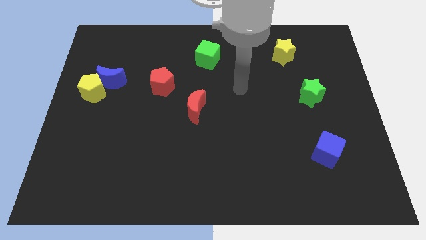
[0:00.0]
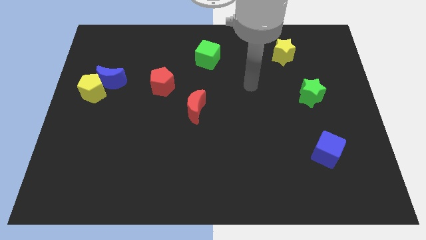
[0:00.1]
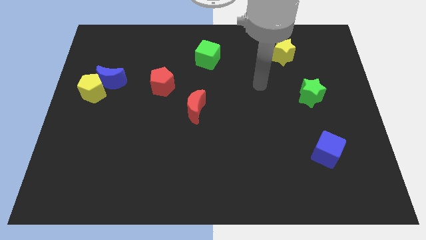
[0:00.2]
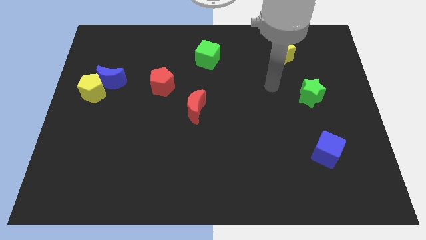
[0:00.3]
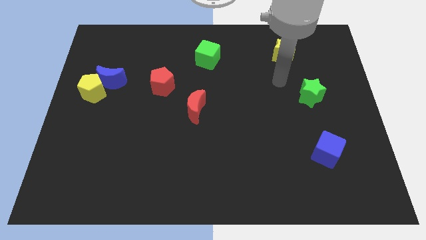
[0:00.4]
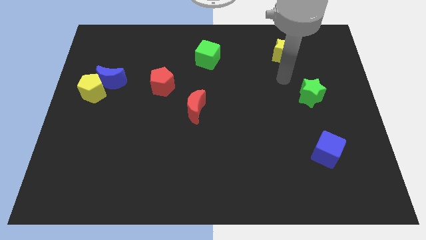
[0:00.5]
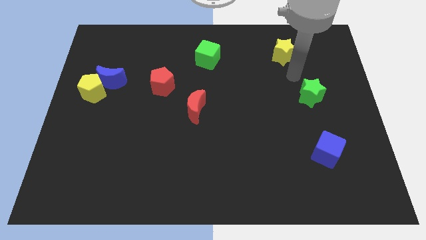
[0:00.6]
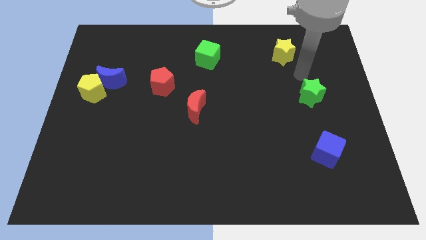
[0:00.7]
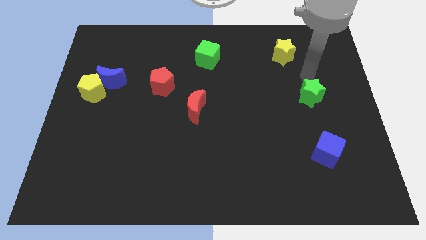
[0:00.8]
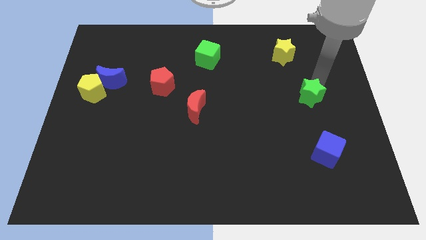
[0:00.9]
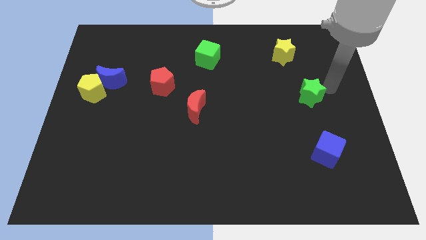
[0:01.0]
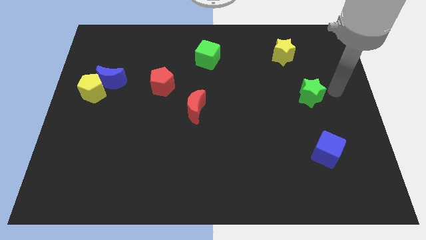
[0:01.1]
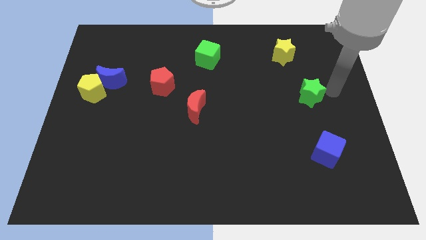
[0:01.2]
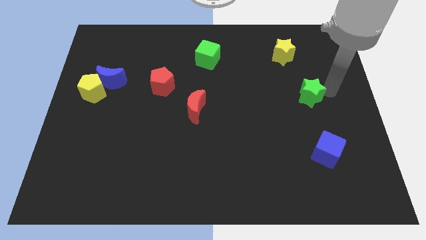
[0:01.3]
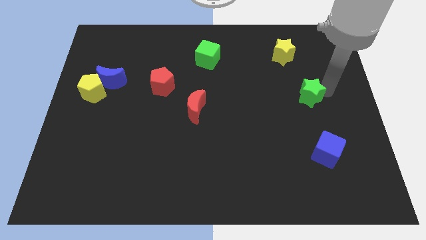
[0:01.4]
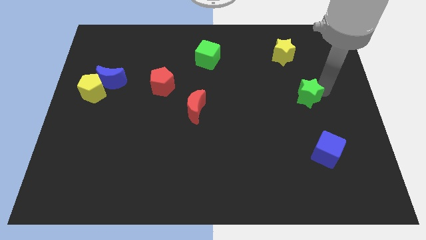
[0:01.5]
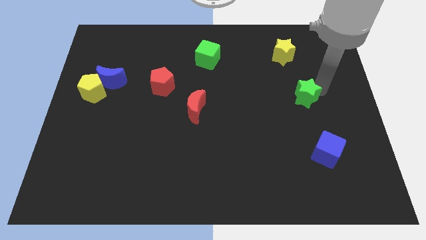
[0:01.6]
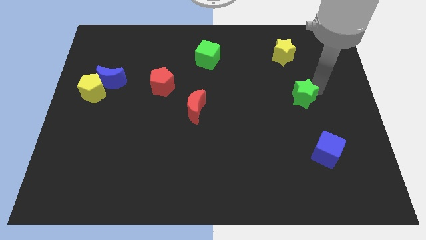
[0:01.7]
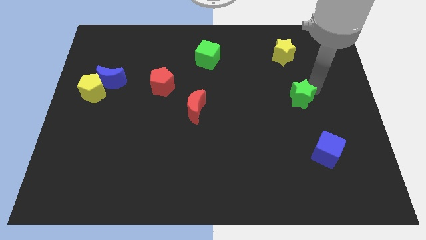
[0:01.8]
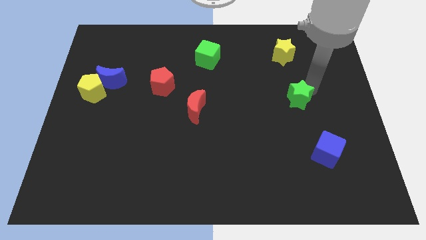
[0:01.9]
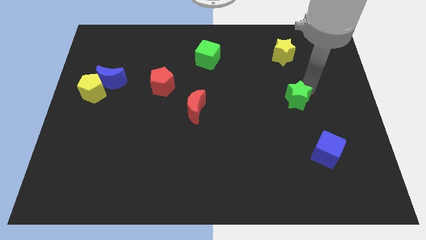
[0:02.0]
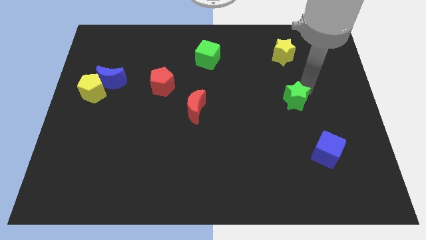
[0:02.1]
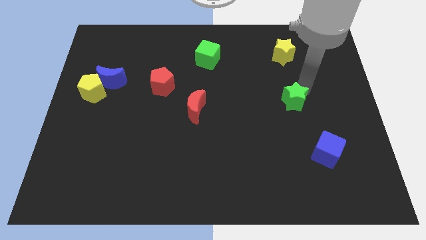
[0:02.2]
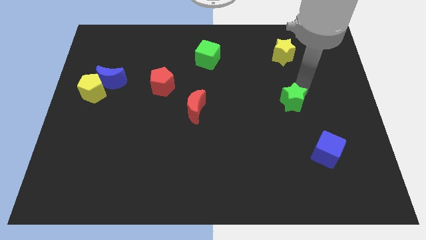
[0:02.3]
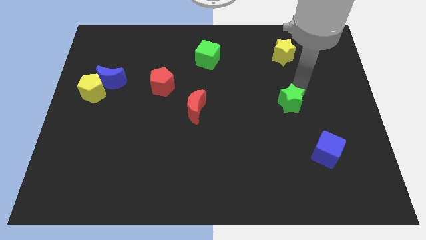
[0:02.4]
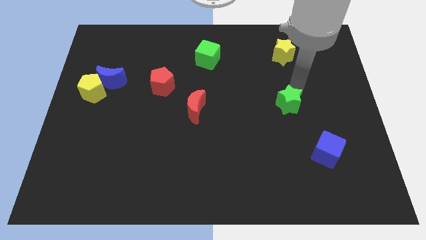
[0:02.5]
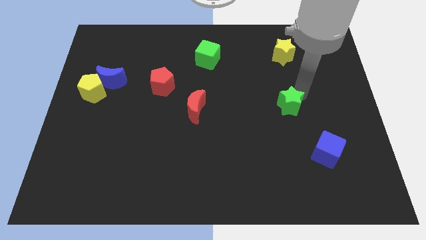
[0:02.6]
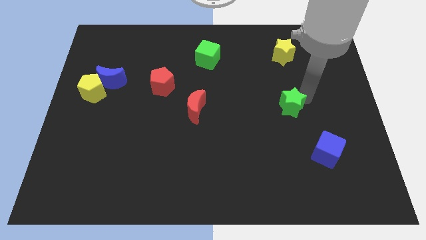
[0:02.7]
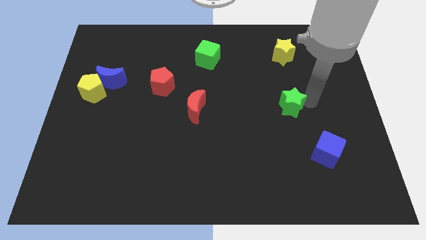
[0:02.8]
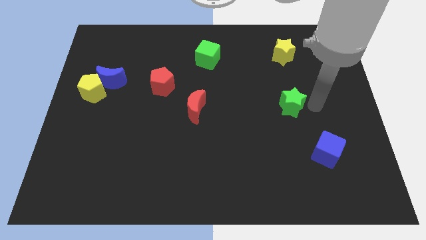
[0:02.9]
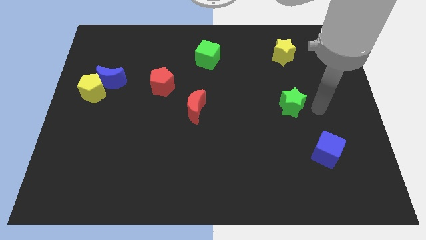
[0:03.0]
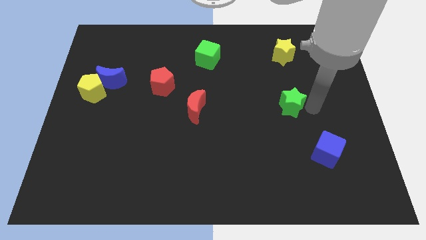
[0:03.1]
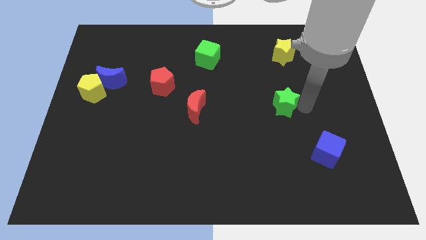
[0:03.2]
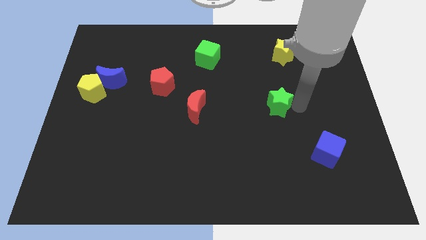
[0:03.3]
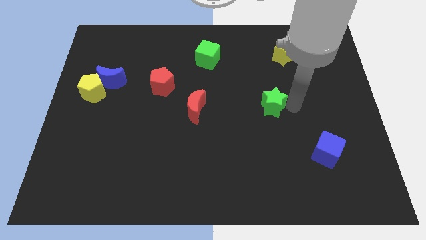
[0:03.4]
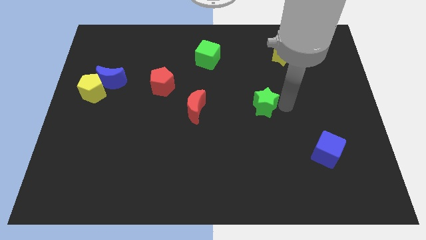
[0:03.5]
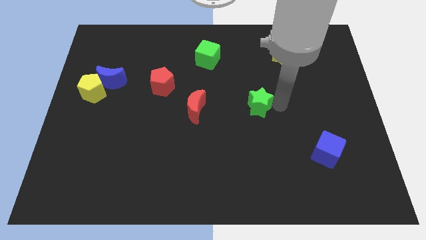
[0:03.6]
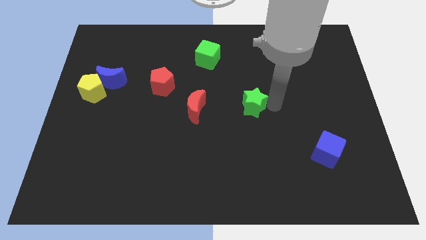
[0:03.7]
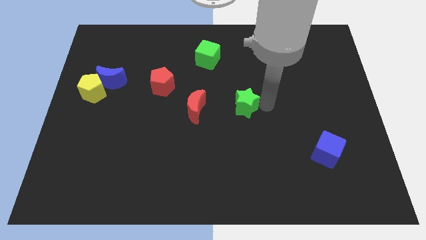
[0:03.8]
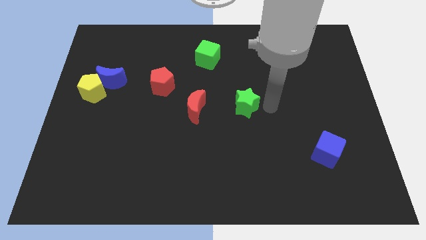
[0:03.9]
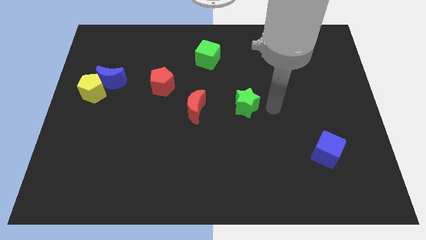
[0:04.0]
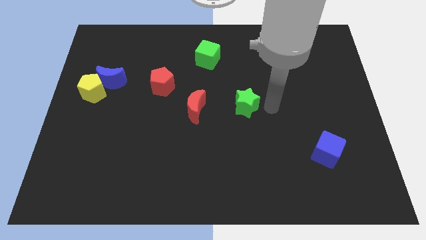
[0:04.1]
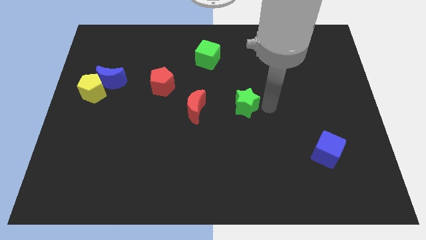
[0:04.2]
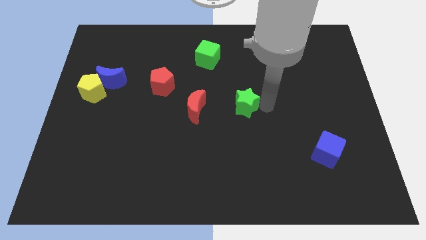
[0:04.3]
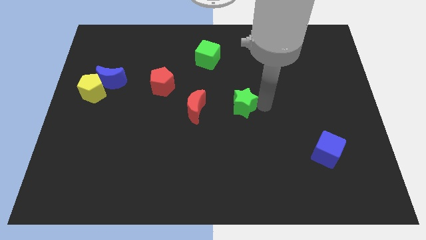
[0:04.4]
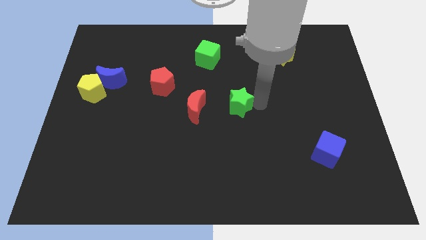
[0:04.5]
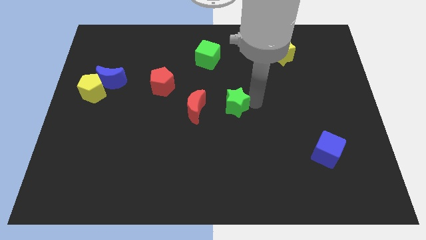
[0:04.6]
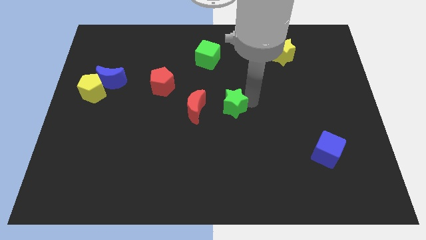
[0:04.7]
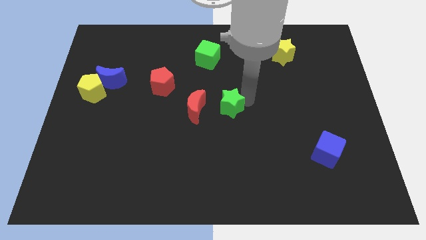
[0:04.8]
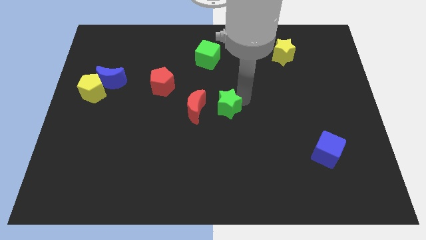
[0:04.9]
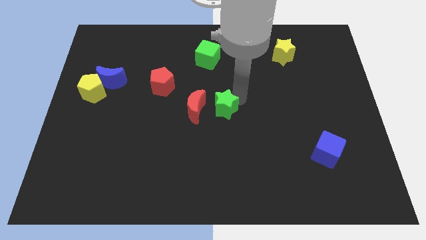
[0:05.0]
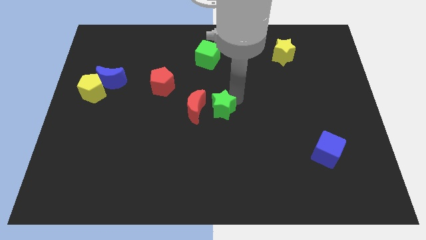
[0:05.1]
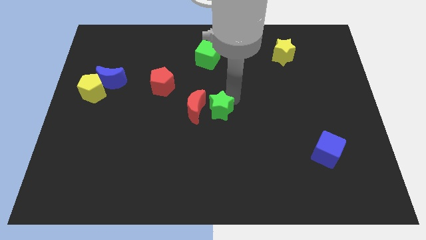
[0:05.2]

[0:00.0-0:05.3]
move the green star to the red moon
